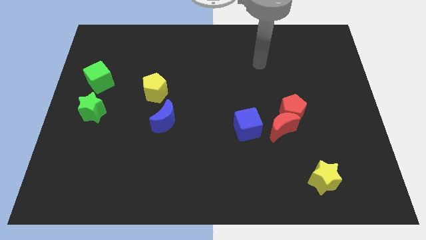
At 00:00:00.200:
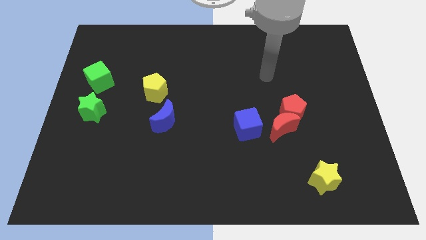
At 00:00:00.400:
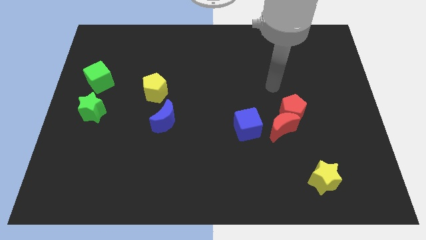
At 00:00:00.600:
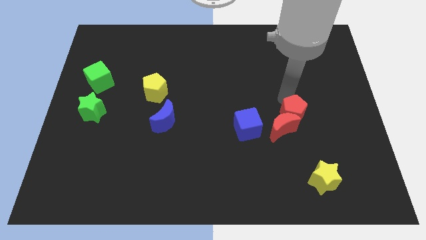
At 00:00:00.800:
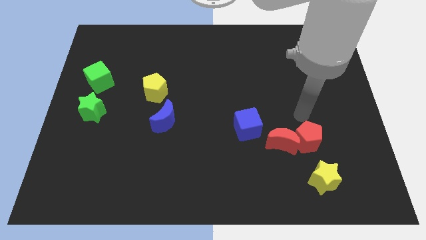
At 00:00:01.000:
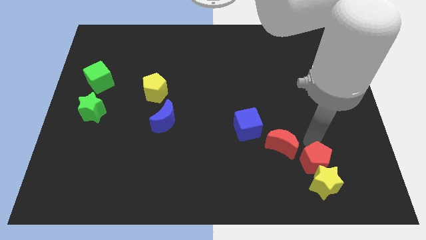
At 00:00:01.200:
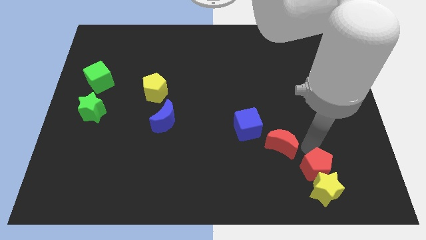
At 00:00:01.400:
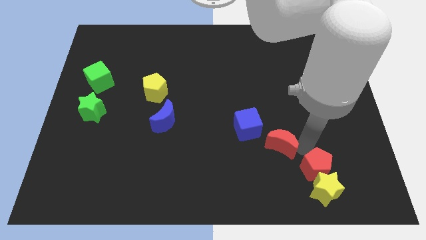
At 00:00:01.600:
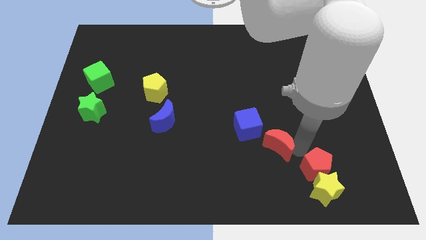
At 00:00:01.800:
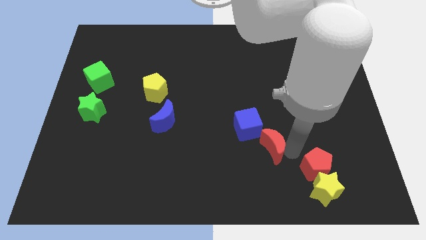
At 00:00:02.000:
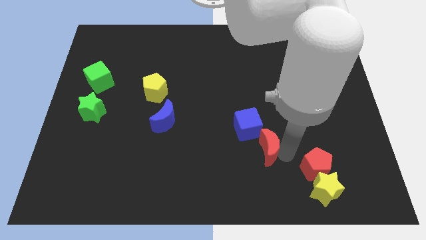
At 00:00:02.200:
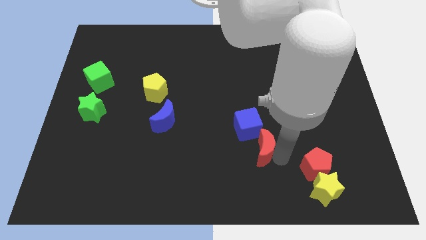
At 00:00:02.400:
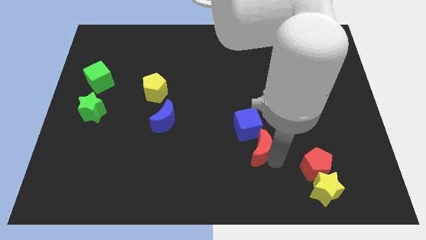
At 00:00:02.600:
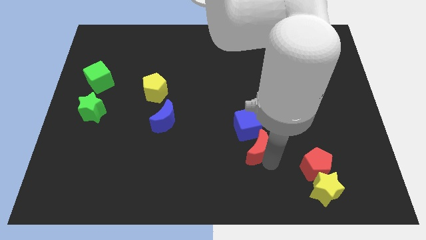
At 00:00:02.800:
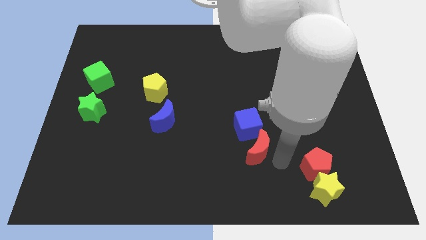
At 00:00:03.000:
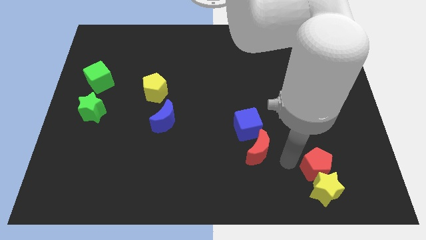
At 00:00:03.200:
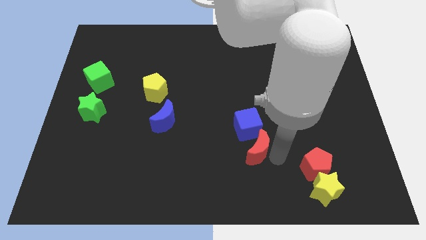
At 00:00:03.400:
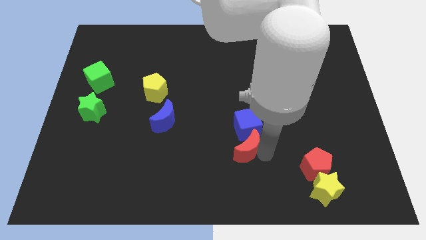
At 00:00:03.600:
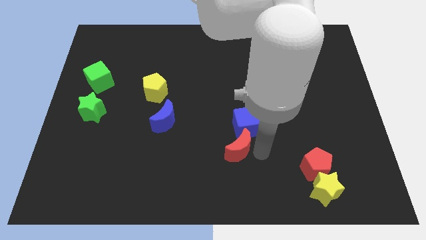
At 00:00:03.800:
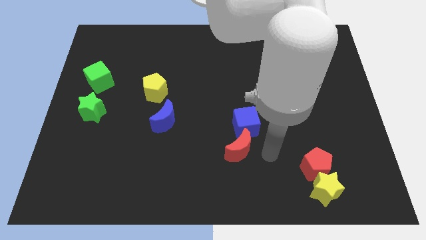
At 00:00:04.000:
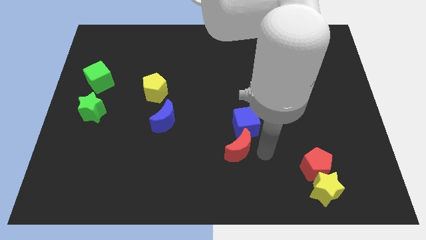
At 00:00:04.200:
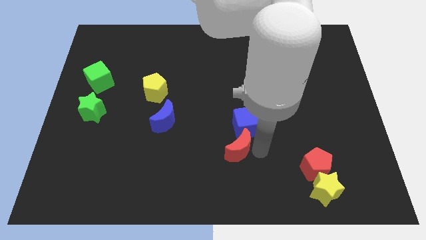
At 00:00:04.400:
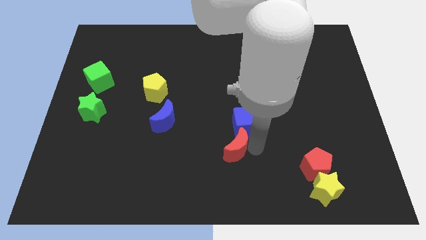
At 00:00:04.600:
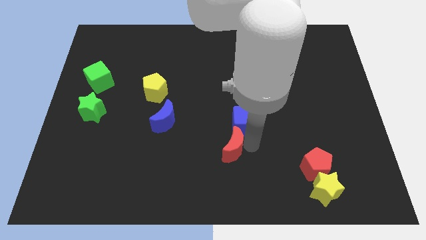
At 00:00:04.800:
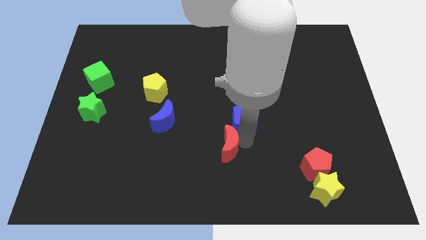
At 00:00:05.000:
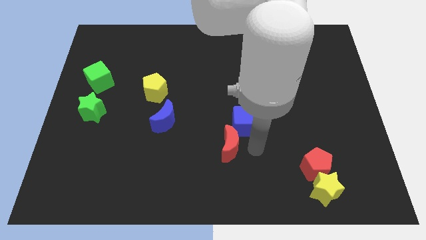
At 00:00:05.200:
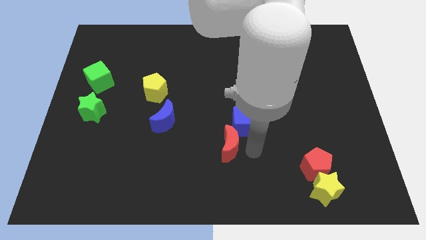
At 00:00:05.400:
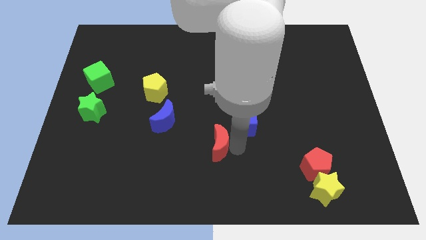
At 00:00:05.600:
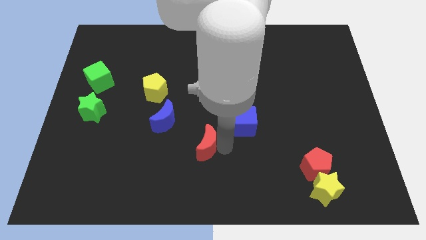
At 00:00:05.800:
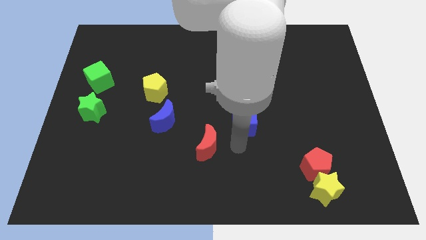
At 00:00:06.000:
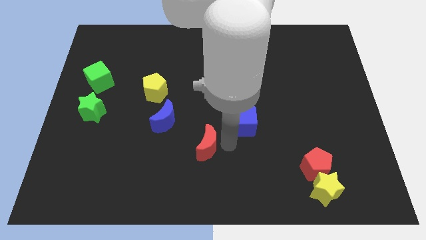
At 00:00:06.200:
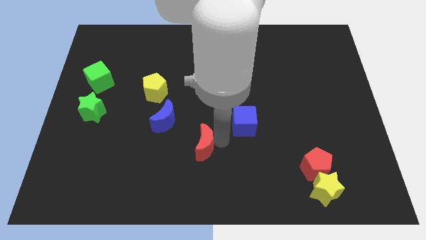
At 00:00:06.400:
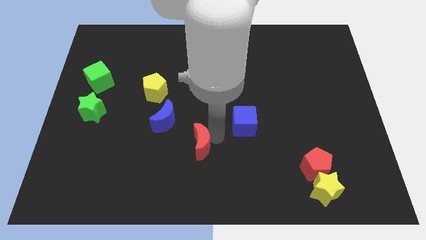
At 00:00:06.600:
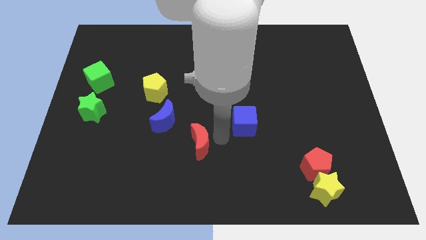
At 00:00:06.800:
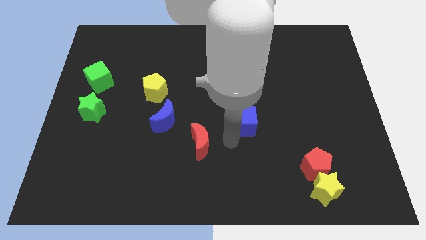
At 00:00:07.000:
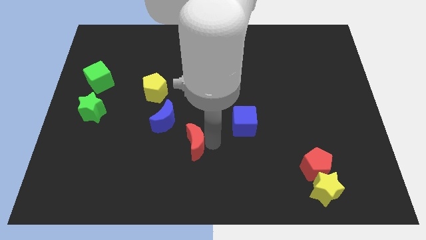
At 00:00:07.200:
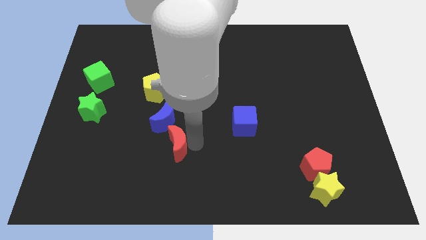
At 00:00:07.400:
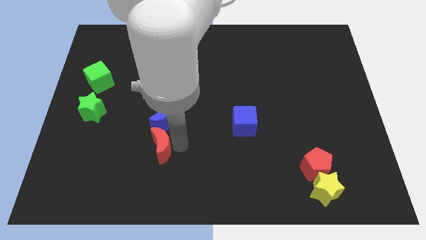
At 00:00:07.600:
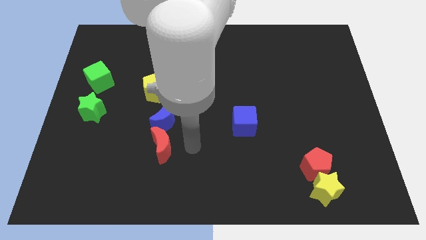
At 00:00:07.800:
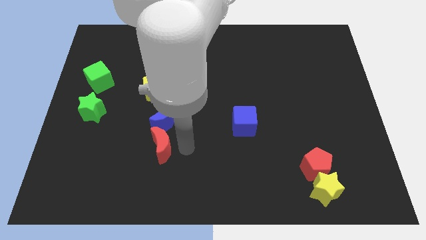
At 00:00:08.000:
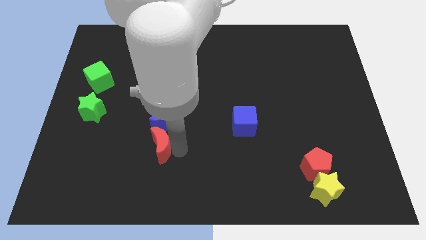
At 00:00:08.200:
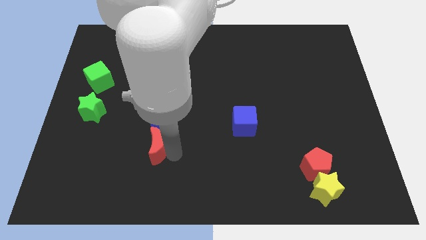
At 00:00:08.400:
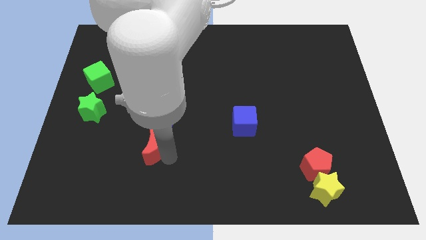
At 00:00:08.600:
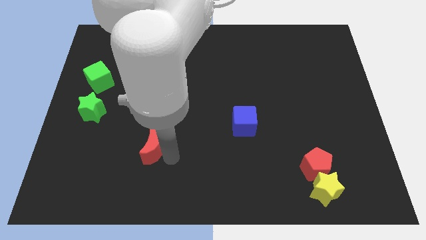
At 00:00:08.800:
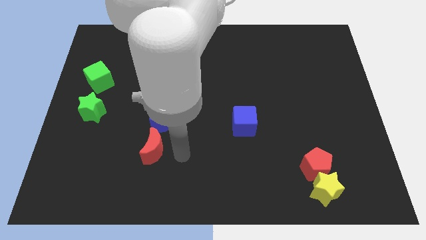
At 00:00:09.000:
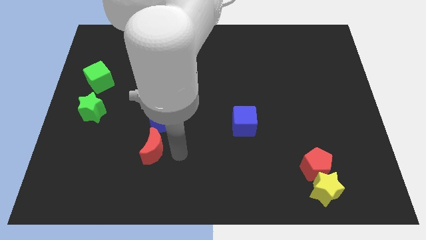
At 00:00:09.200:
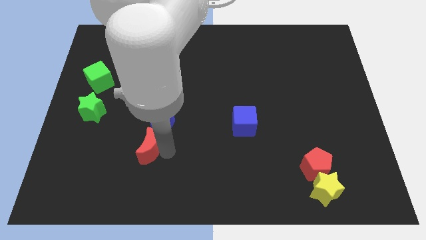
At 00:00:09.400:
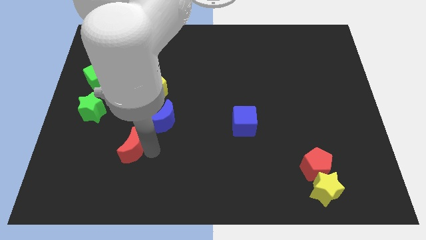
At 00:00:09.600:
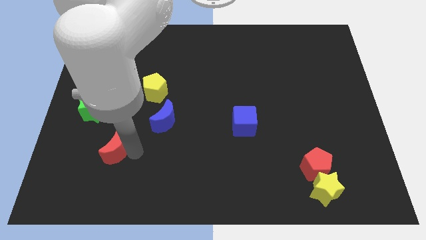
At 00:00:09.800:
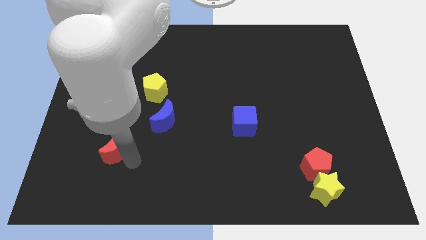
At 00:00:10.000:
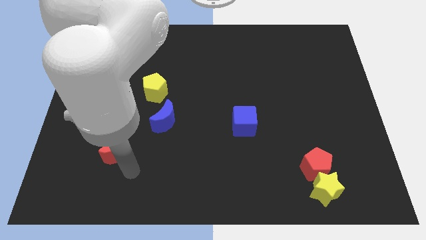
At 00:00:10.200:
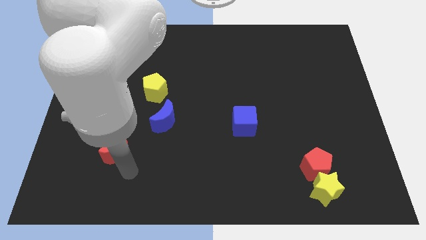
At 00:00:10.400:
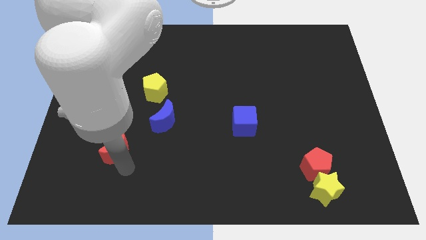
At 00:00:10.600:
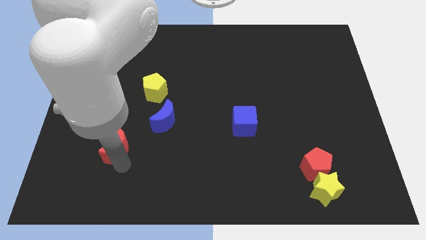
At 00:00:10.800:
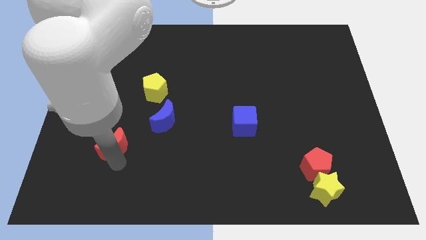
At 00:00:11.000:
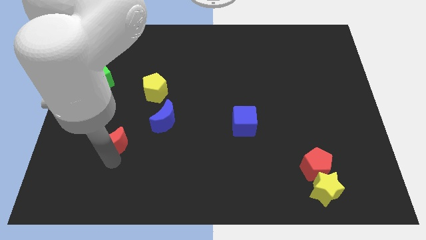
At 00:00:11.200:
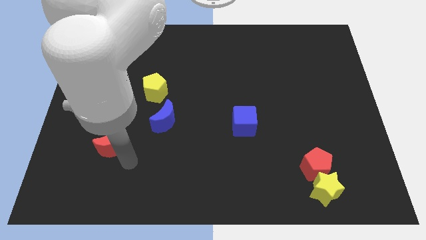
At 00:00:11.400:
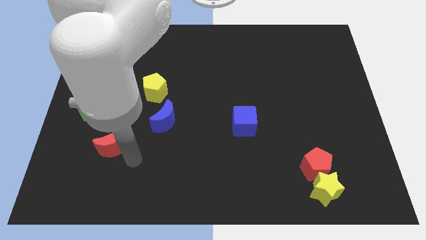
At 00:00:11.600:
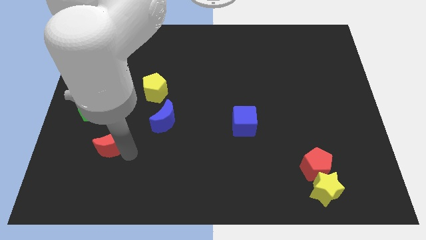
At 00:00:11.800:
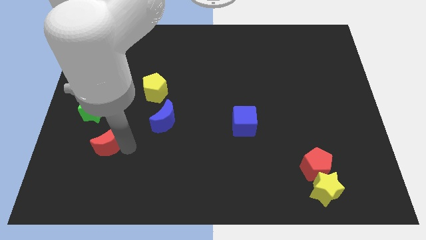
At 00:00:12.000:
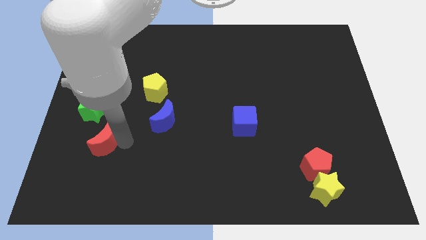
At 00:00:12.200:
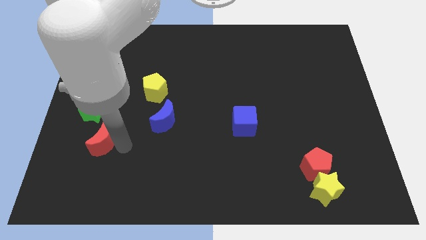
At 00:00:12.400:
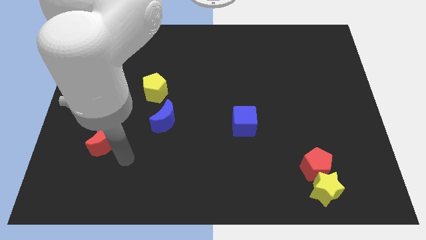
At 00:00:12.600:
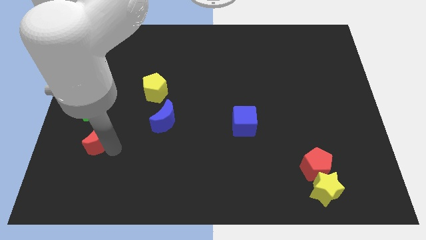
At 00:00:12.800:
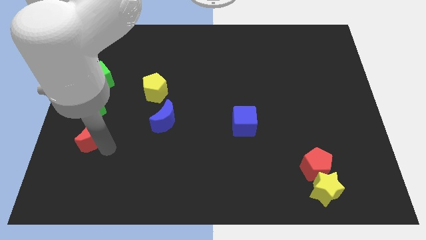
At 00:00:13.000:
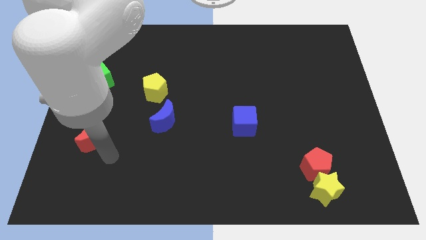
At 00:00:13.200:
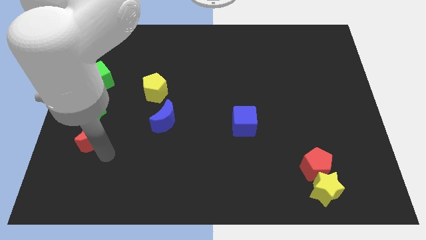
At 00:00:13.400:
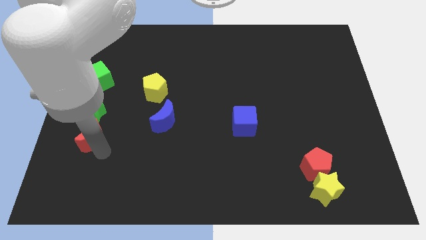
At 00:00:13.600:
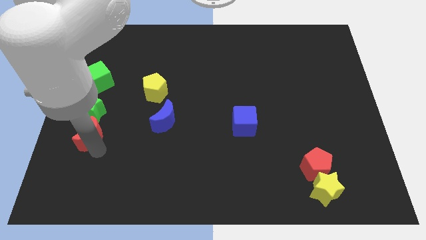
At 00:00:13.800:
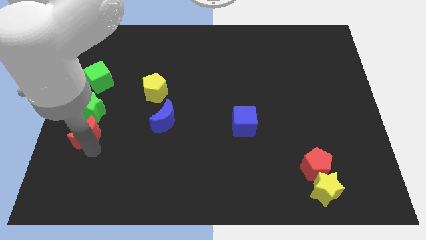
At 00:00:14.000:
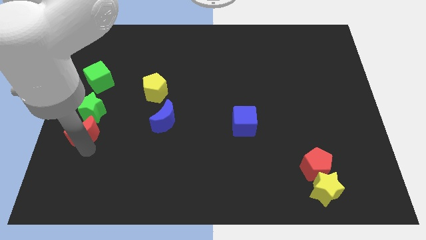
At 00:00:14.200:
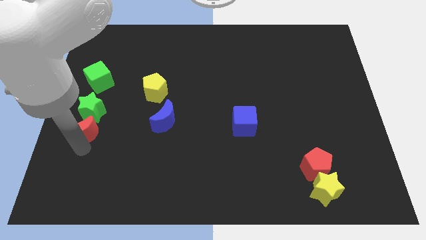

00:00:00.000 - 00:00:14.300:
put the red moon to the center left
